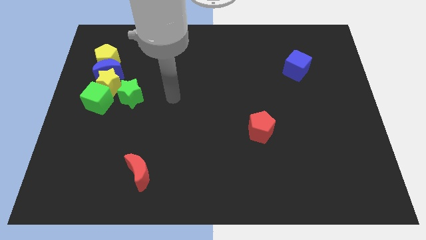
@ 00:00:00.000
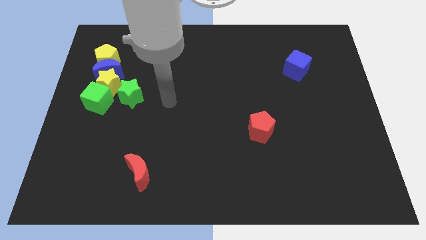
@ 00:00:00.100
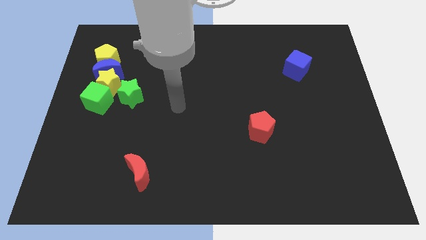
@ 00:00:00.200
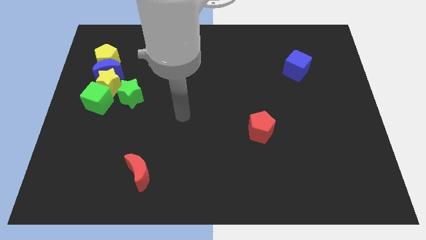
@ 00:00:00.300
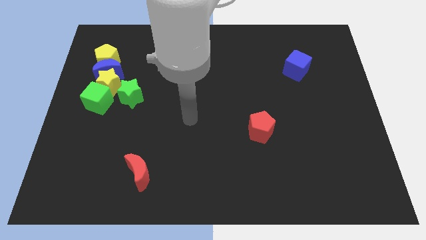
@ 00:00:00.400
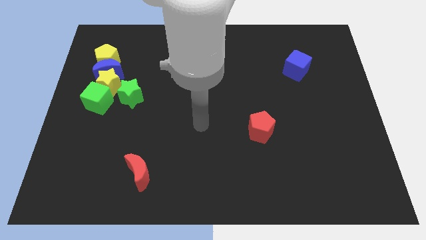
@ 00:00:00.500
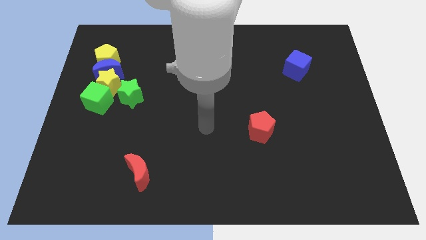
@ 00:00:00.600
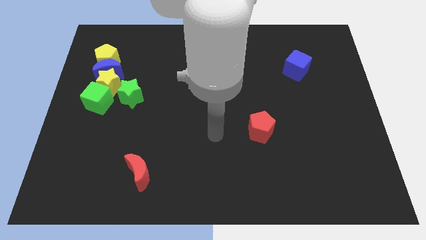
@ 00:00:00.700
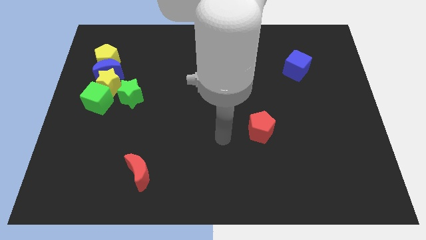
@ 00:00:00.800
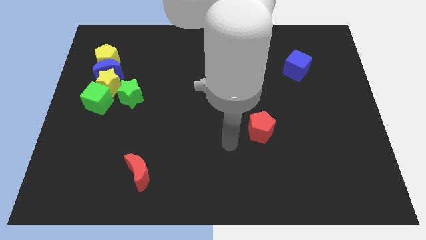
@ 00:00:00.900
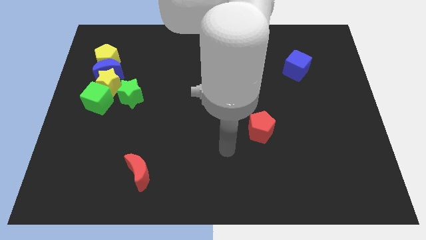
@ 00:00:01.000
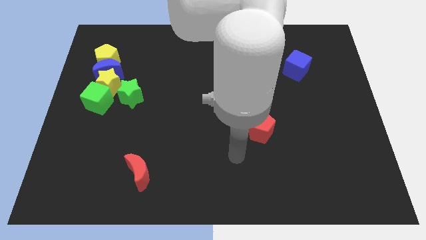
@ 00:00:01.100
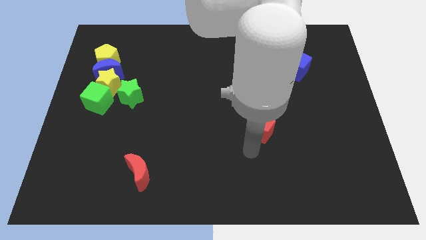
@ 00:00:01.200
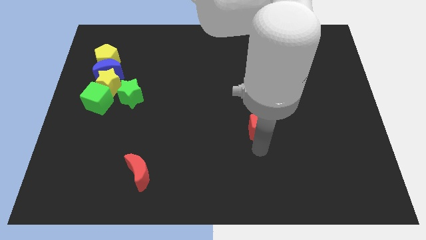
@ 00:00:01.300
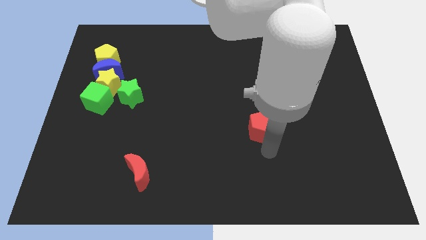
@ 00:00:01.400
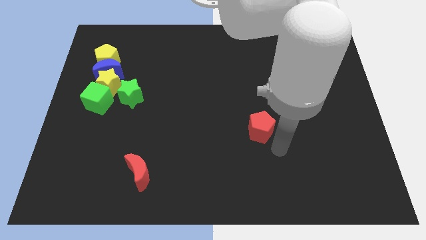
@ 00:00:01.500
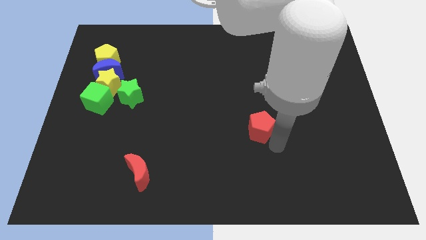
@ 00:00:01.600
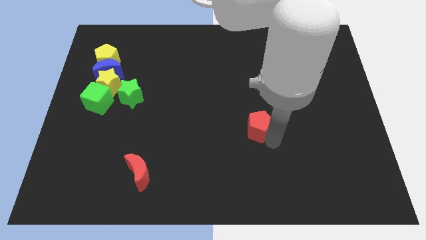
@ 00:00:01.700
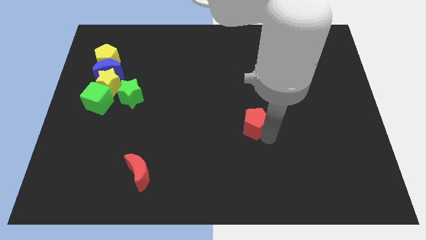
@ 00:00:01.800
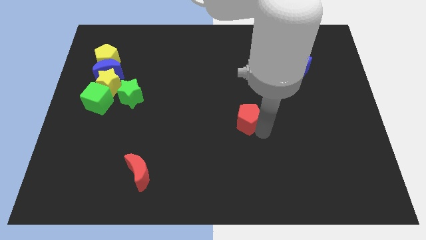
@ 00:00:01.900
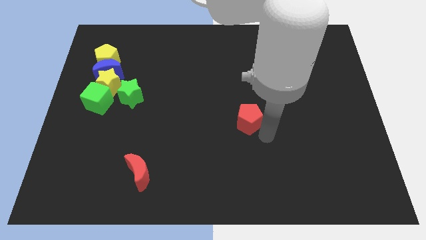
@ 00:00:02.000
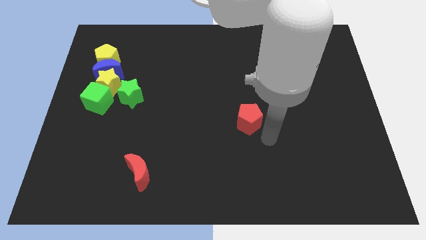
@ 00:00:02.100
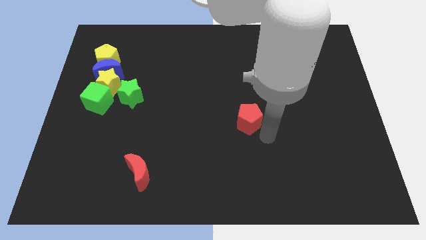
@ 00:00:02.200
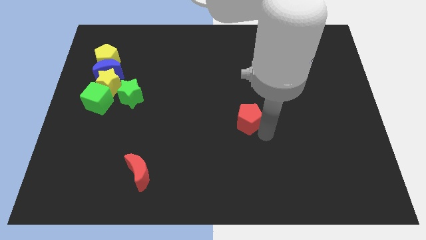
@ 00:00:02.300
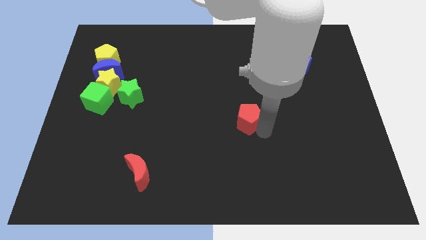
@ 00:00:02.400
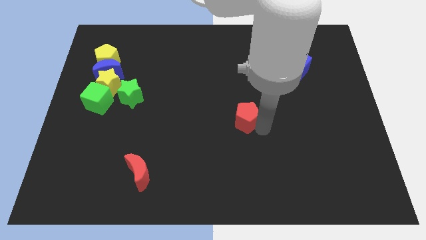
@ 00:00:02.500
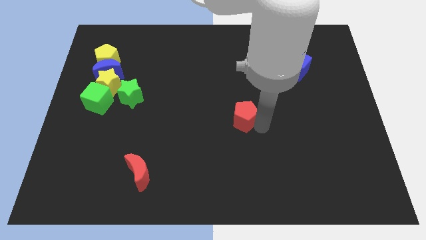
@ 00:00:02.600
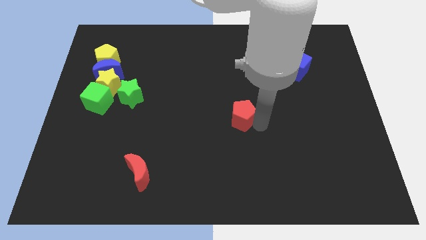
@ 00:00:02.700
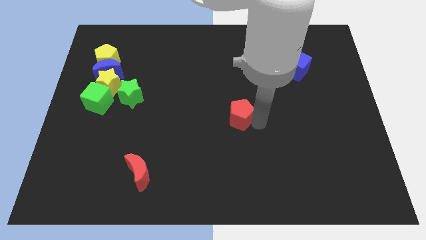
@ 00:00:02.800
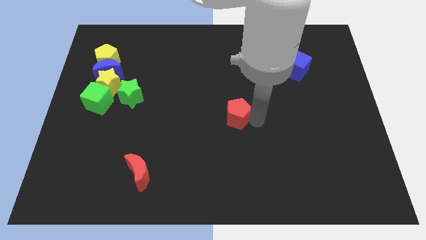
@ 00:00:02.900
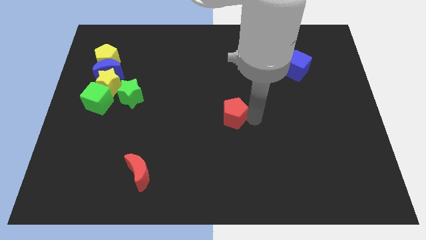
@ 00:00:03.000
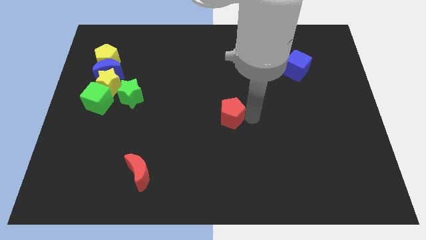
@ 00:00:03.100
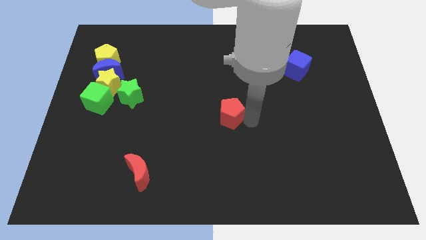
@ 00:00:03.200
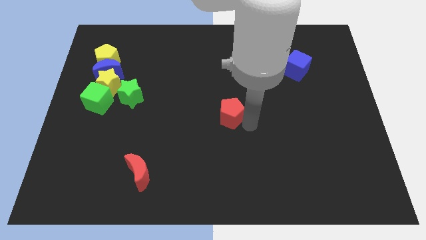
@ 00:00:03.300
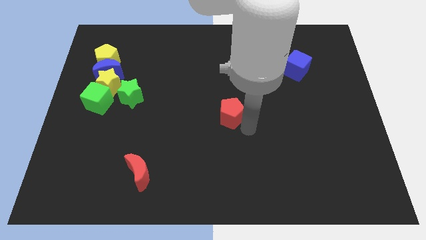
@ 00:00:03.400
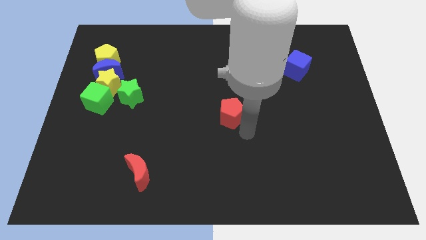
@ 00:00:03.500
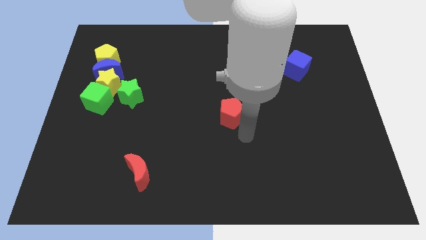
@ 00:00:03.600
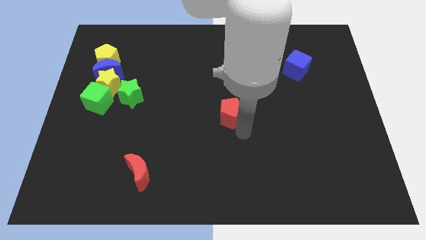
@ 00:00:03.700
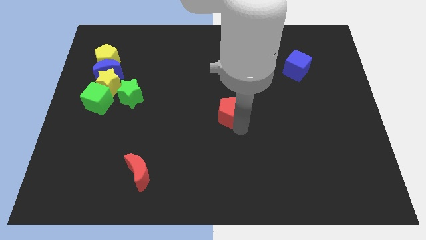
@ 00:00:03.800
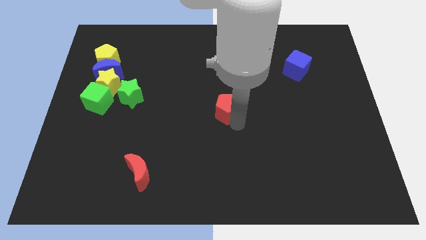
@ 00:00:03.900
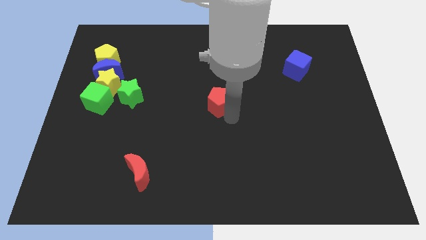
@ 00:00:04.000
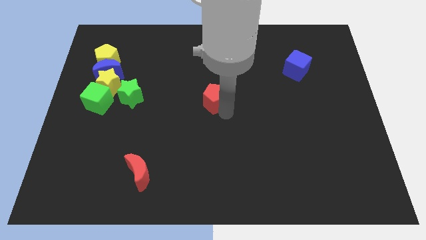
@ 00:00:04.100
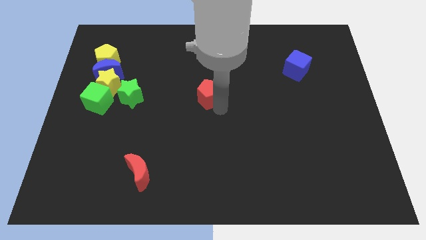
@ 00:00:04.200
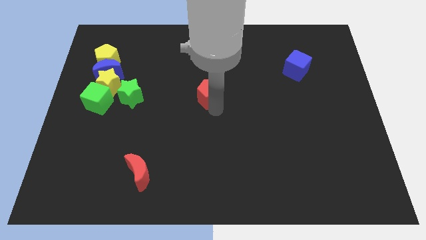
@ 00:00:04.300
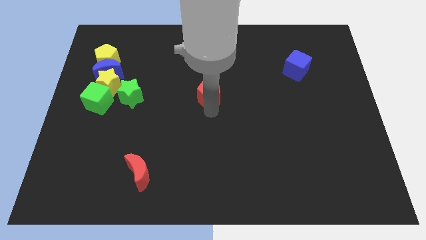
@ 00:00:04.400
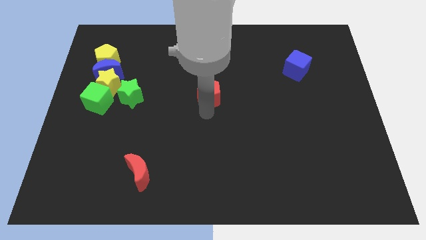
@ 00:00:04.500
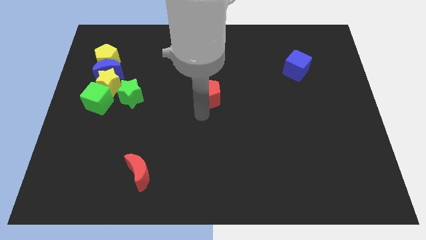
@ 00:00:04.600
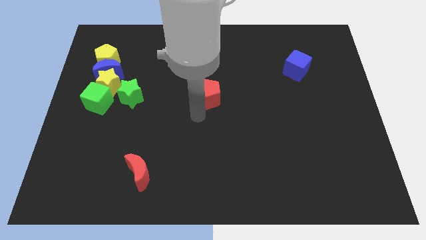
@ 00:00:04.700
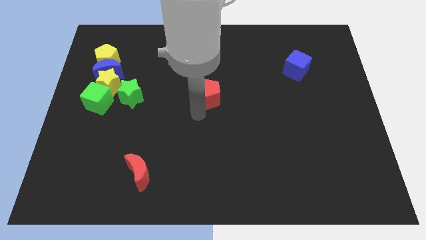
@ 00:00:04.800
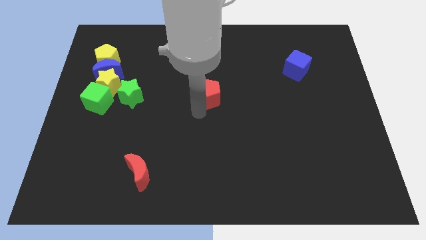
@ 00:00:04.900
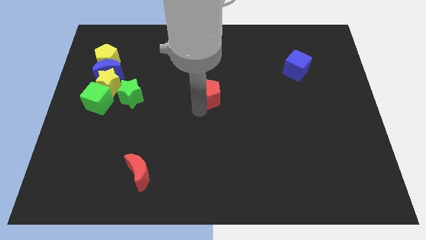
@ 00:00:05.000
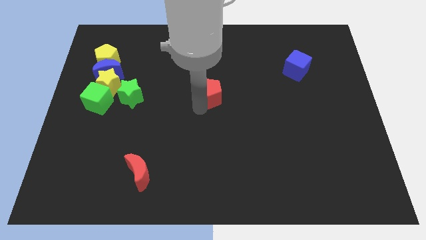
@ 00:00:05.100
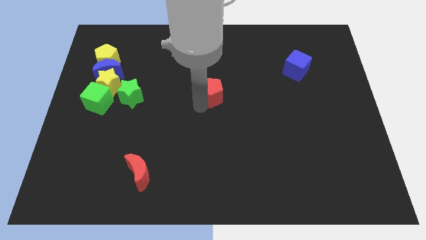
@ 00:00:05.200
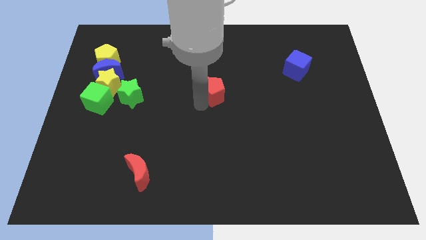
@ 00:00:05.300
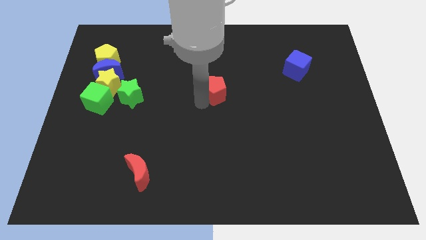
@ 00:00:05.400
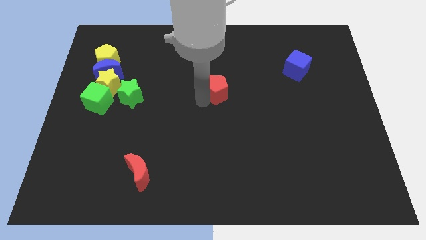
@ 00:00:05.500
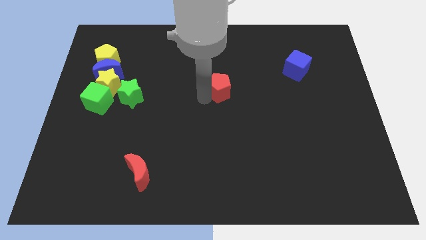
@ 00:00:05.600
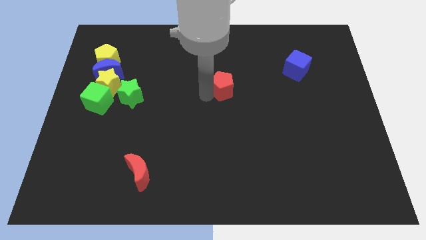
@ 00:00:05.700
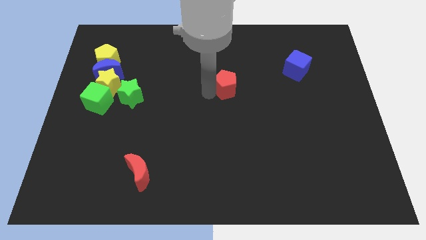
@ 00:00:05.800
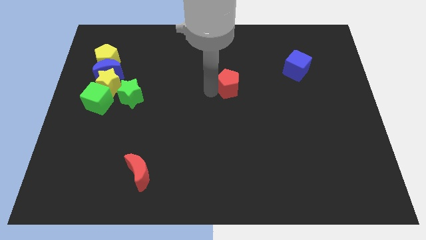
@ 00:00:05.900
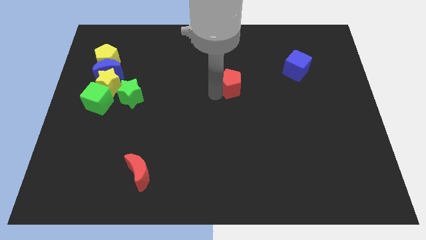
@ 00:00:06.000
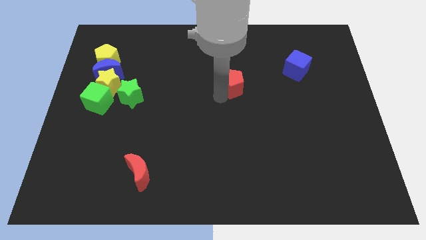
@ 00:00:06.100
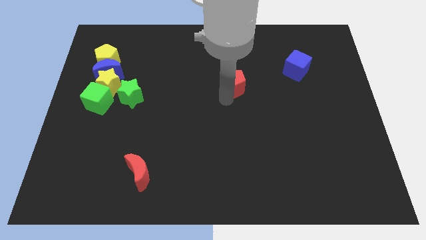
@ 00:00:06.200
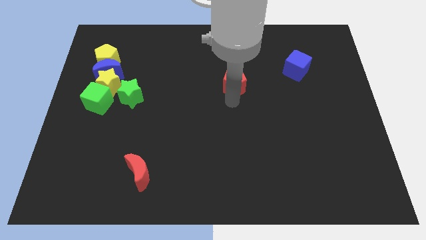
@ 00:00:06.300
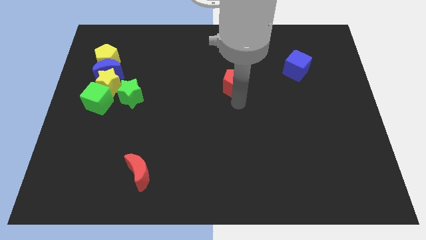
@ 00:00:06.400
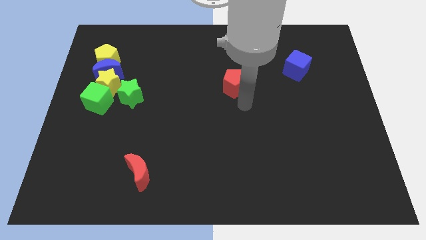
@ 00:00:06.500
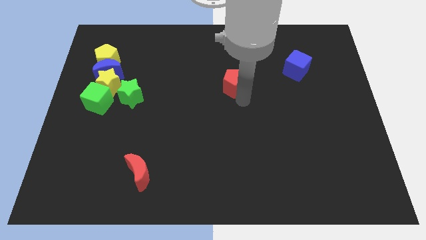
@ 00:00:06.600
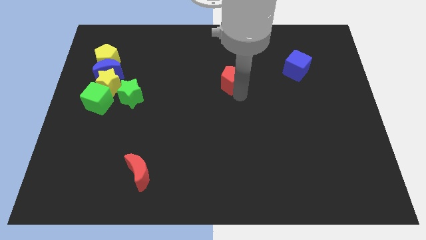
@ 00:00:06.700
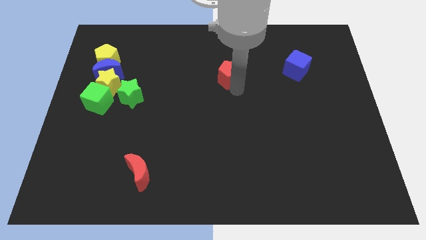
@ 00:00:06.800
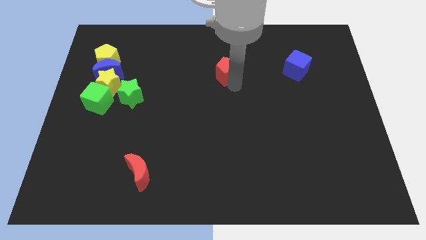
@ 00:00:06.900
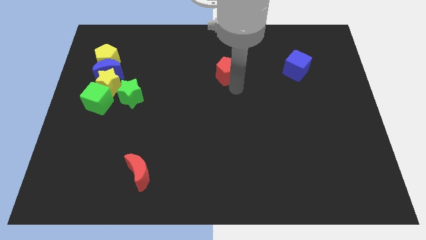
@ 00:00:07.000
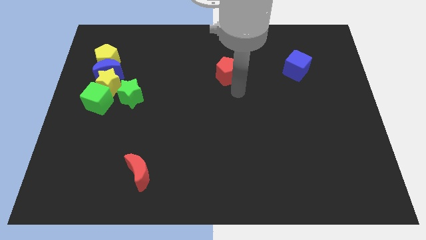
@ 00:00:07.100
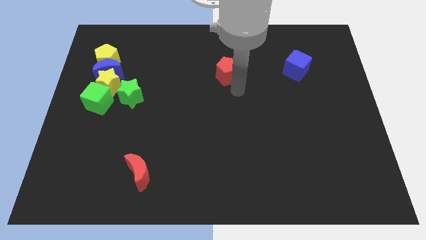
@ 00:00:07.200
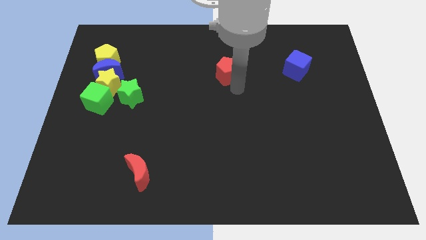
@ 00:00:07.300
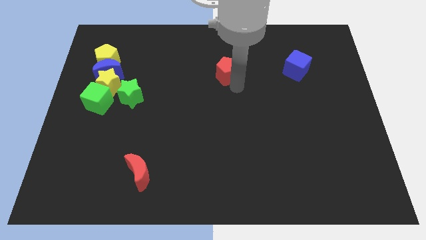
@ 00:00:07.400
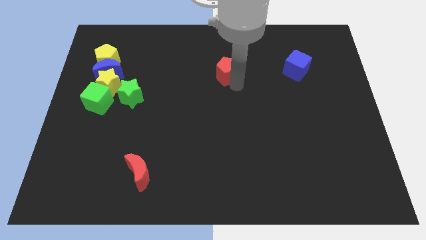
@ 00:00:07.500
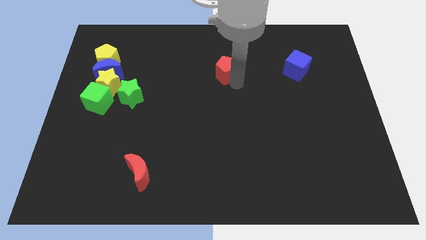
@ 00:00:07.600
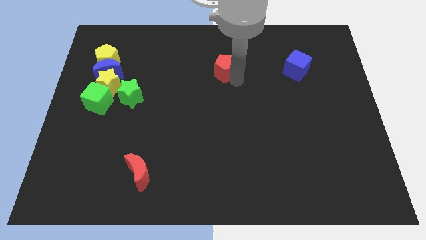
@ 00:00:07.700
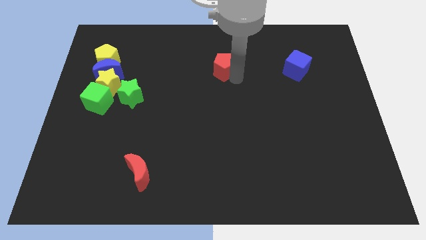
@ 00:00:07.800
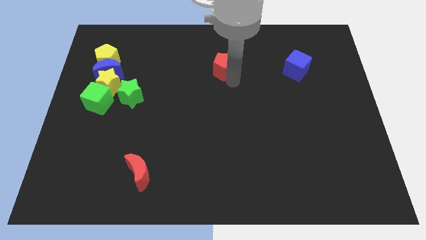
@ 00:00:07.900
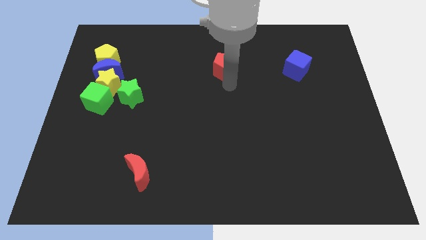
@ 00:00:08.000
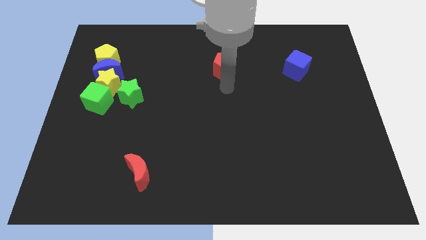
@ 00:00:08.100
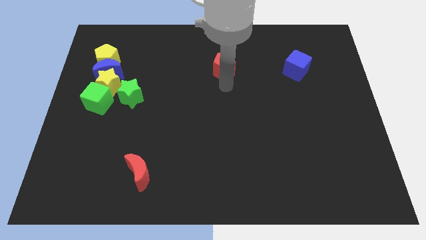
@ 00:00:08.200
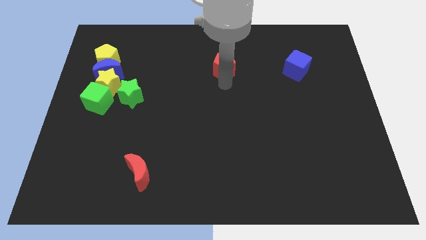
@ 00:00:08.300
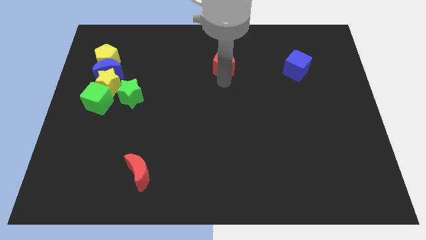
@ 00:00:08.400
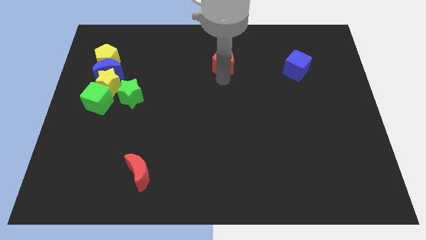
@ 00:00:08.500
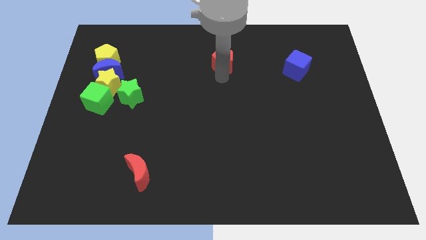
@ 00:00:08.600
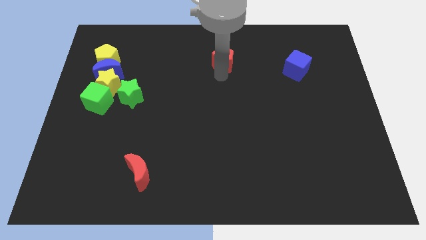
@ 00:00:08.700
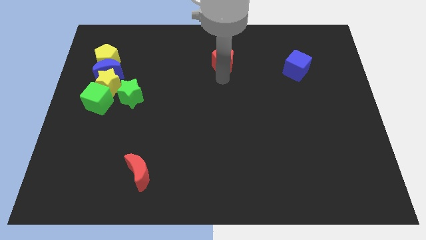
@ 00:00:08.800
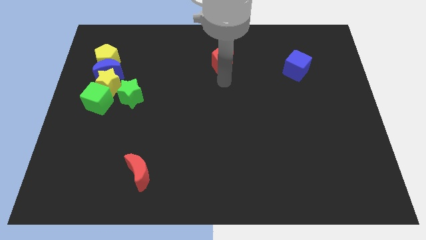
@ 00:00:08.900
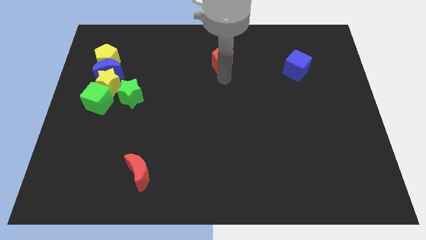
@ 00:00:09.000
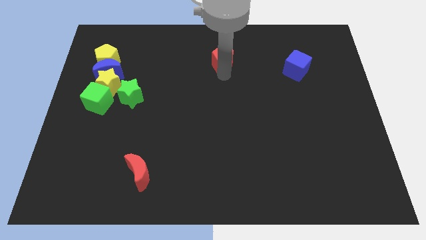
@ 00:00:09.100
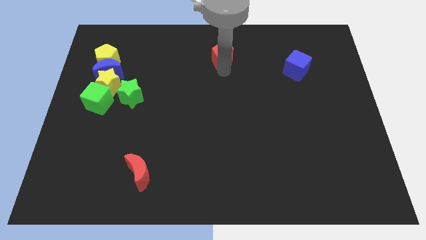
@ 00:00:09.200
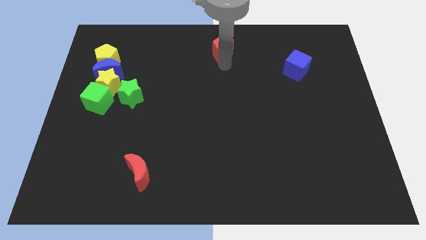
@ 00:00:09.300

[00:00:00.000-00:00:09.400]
put the red pentagon to the top
